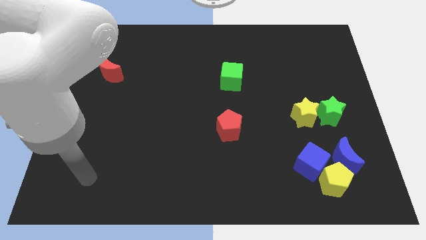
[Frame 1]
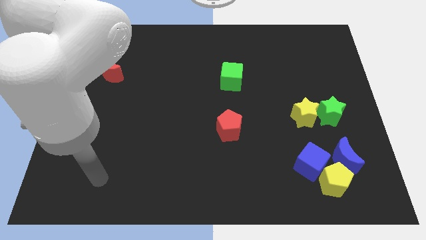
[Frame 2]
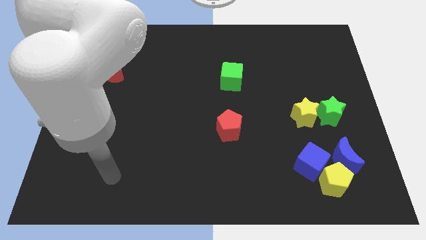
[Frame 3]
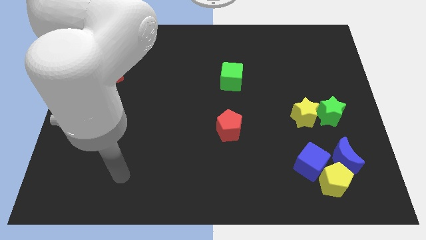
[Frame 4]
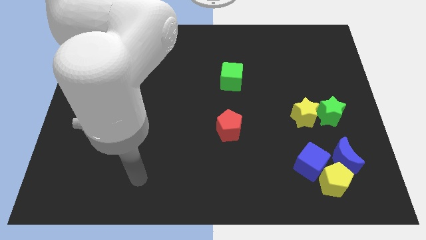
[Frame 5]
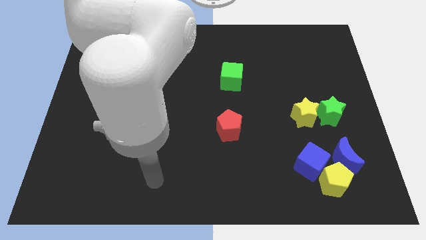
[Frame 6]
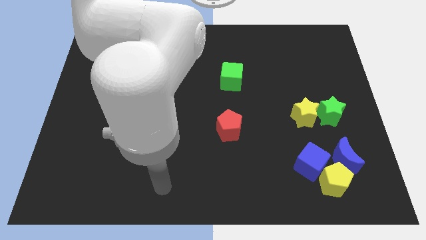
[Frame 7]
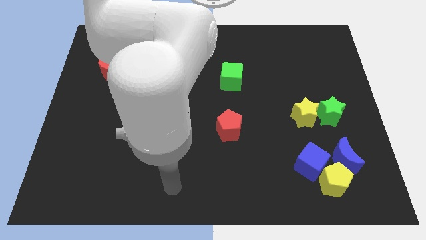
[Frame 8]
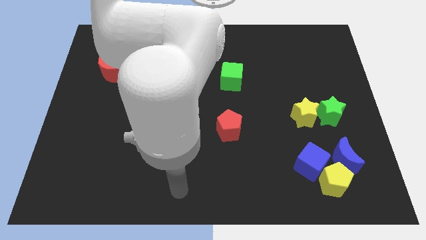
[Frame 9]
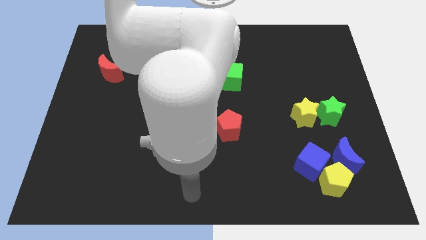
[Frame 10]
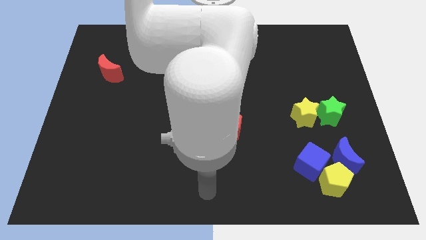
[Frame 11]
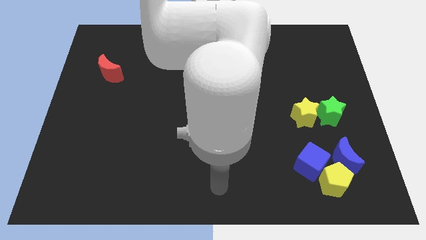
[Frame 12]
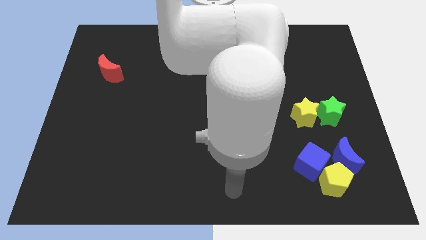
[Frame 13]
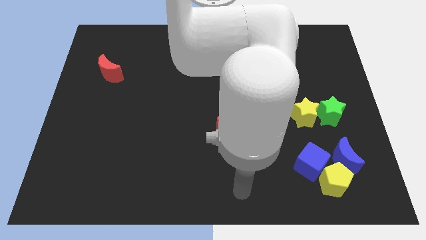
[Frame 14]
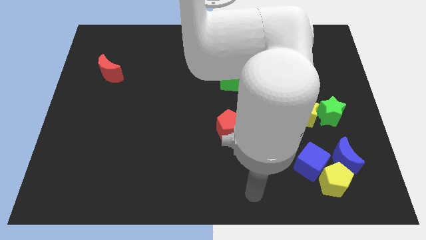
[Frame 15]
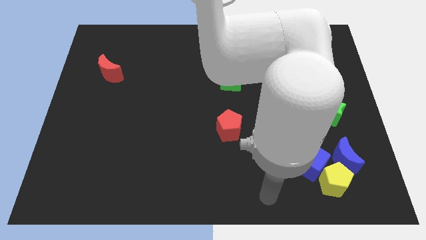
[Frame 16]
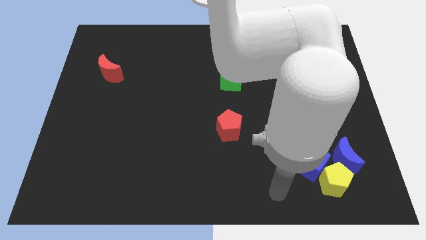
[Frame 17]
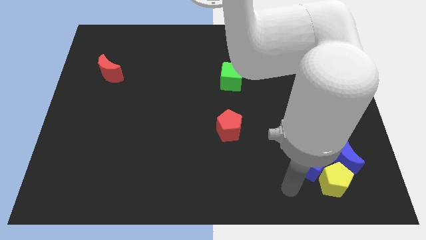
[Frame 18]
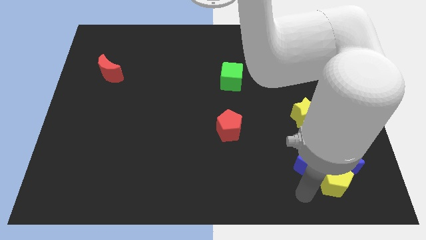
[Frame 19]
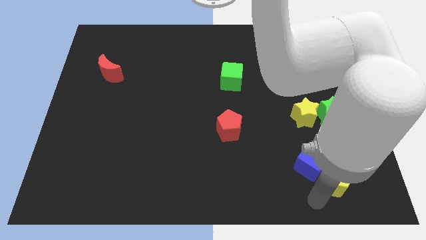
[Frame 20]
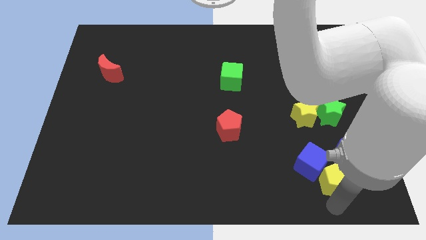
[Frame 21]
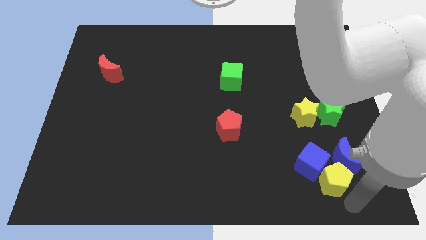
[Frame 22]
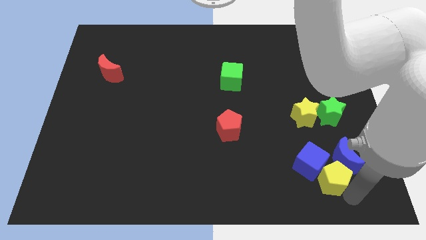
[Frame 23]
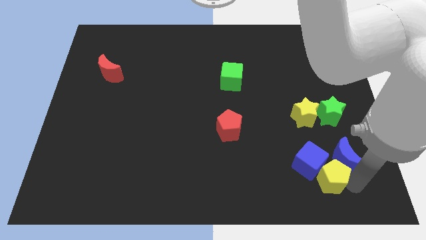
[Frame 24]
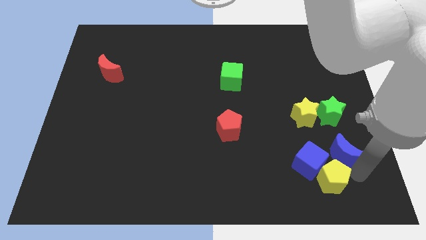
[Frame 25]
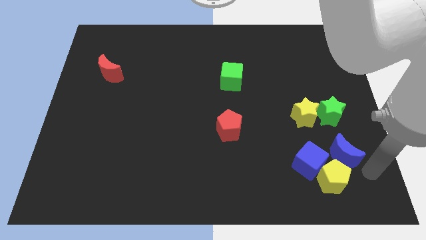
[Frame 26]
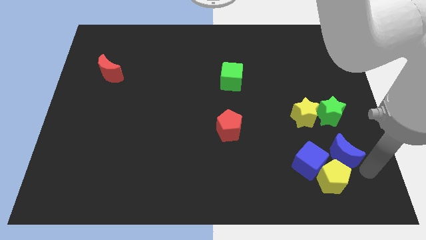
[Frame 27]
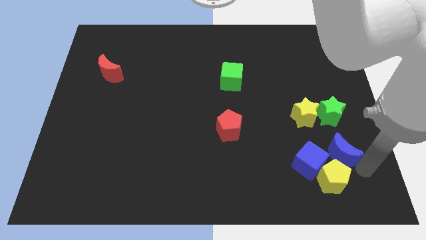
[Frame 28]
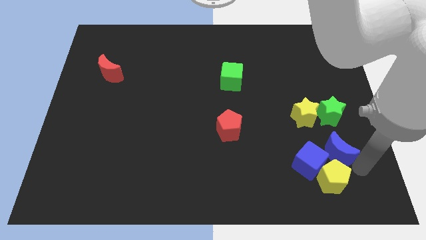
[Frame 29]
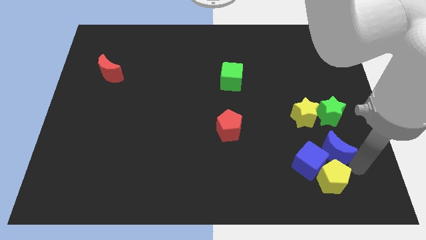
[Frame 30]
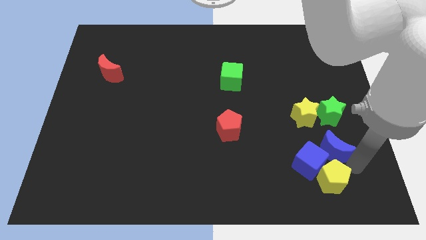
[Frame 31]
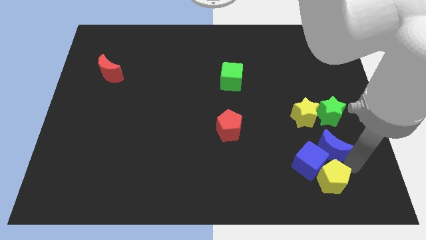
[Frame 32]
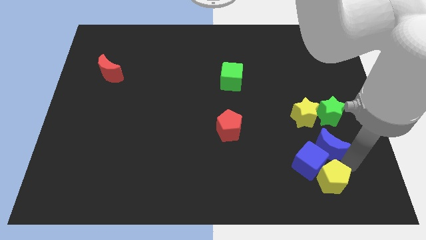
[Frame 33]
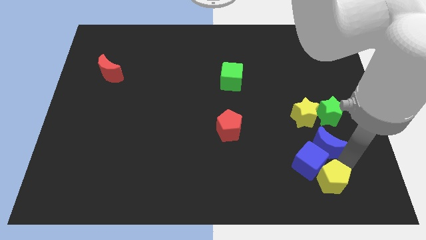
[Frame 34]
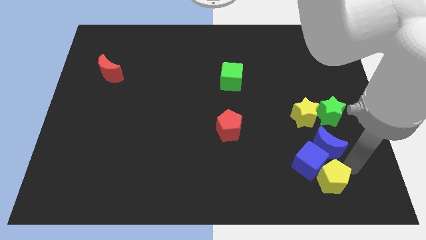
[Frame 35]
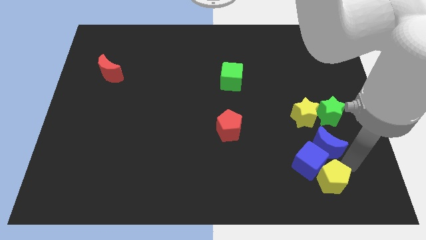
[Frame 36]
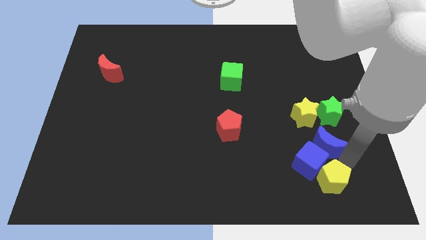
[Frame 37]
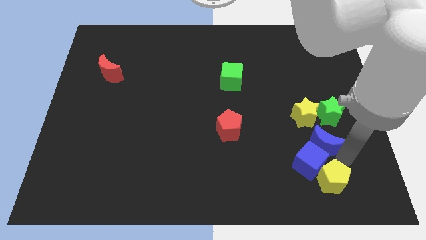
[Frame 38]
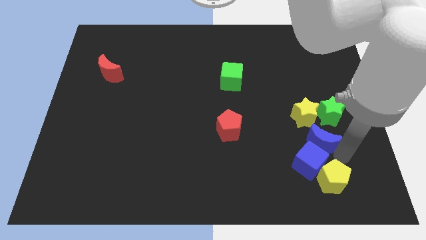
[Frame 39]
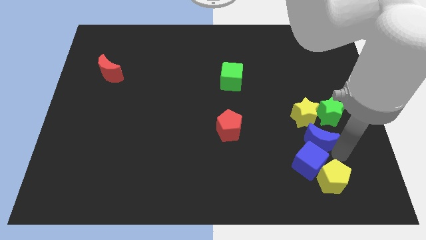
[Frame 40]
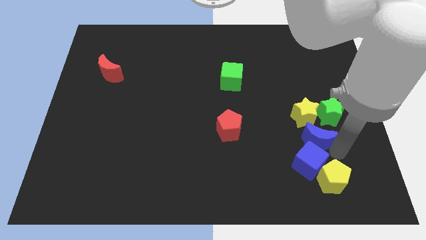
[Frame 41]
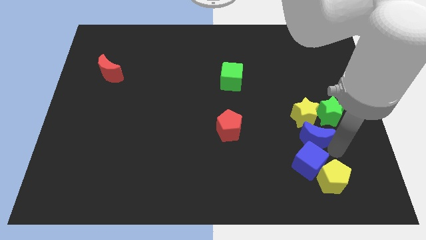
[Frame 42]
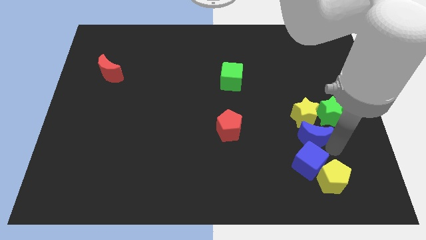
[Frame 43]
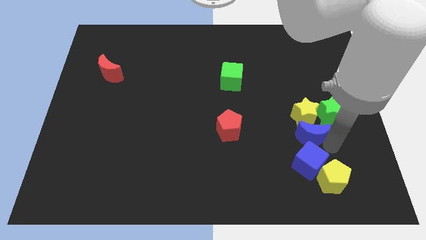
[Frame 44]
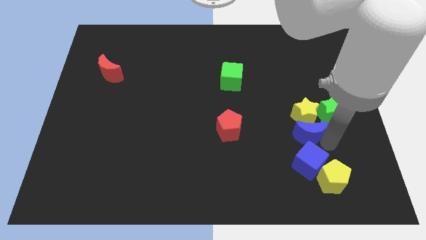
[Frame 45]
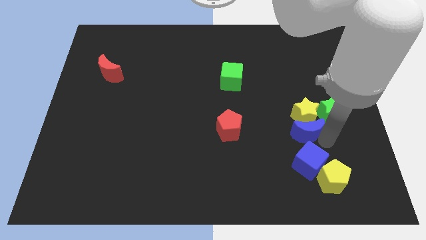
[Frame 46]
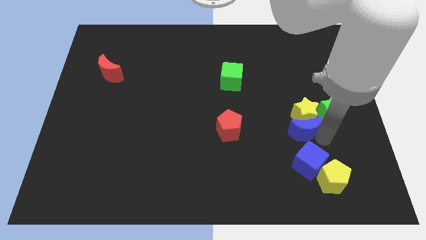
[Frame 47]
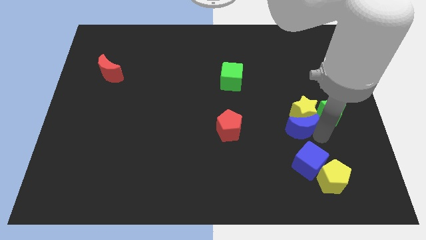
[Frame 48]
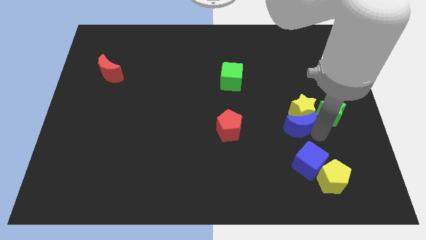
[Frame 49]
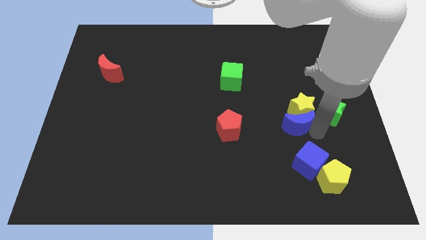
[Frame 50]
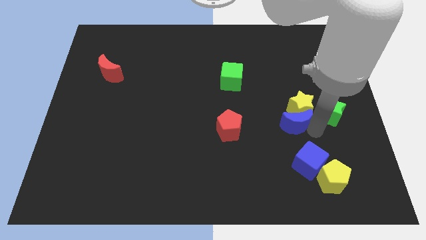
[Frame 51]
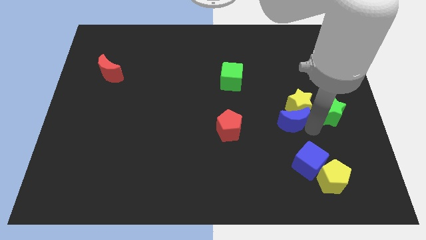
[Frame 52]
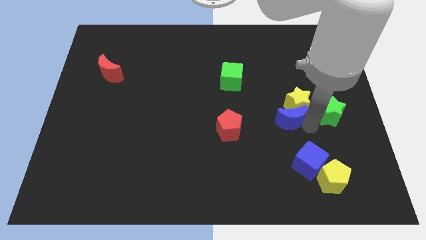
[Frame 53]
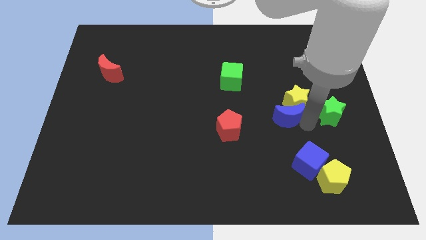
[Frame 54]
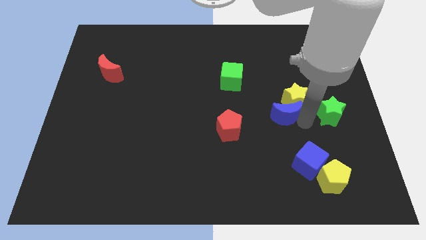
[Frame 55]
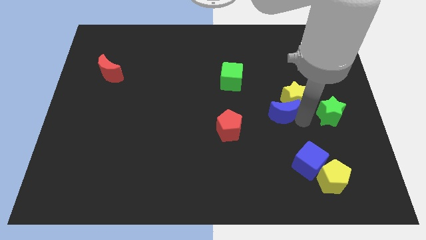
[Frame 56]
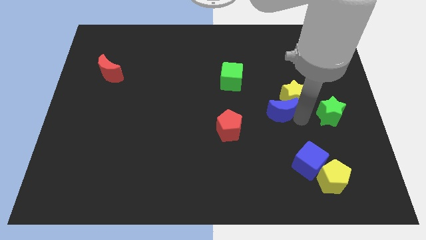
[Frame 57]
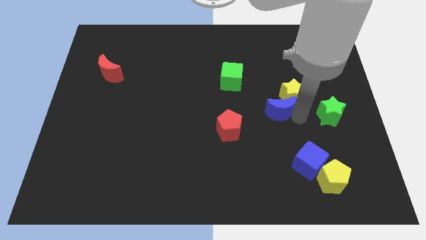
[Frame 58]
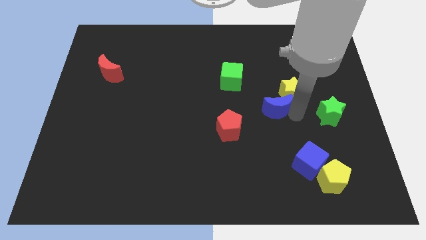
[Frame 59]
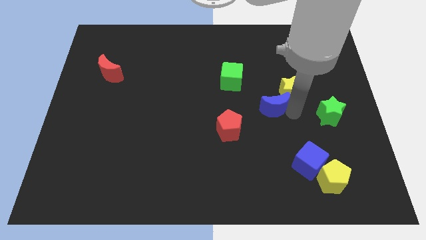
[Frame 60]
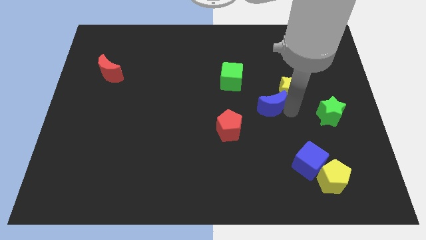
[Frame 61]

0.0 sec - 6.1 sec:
put the blue moon diagonally down and to the right of the green cube

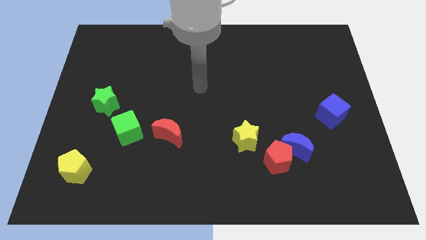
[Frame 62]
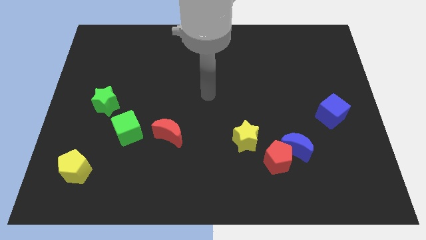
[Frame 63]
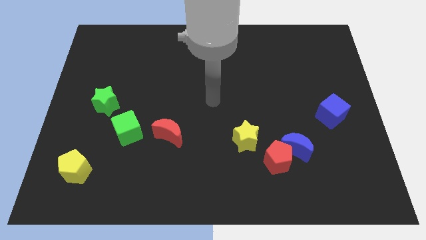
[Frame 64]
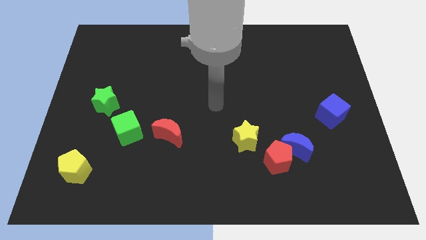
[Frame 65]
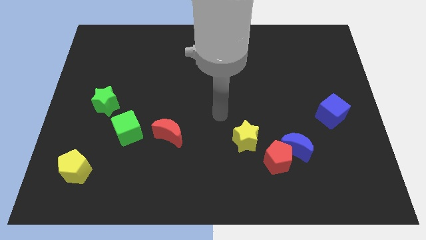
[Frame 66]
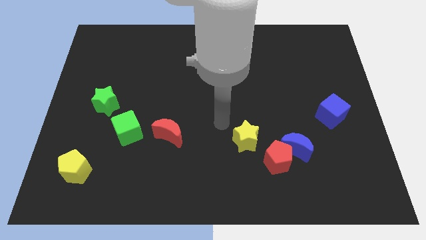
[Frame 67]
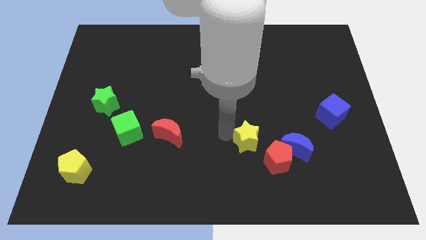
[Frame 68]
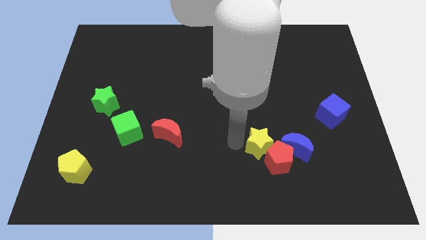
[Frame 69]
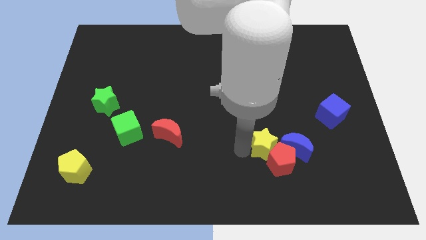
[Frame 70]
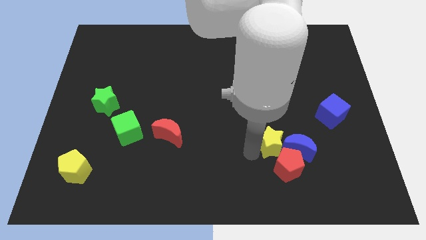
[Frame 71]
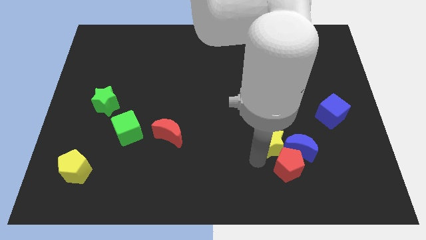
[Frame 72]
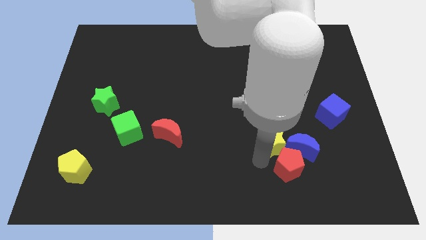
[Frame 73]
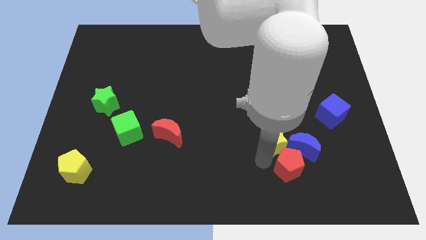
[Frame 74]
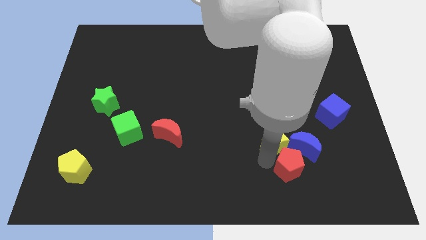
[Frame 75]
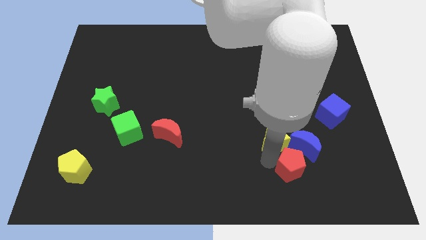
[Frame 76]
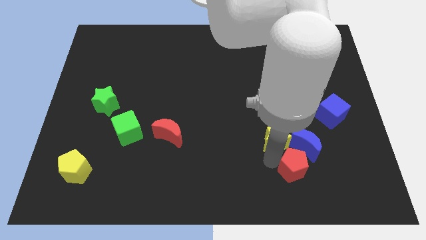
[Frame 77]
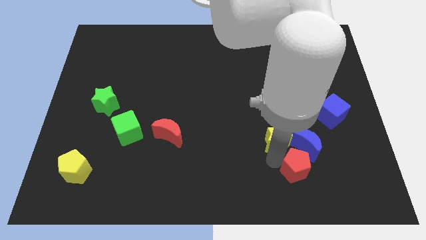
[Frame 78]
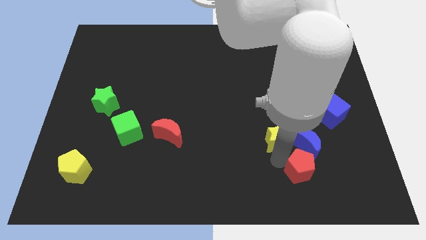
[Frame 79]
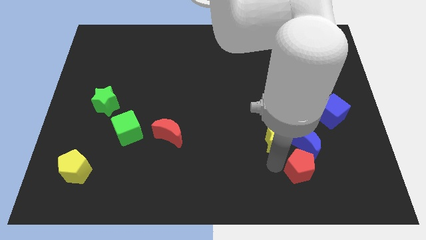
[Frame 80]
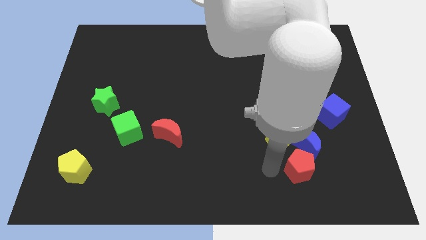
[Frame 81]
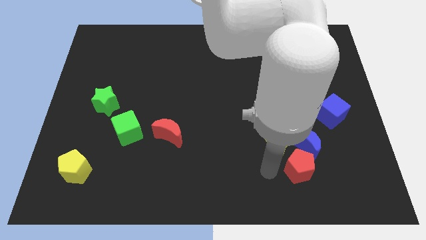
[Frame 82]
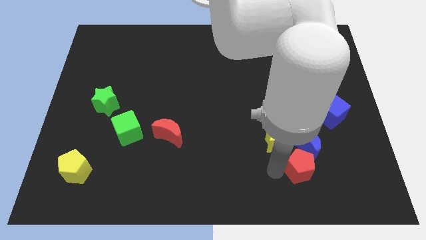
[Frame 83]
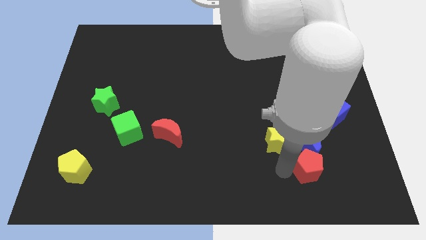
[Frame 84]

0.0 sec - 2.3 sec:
slide the red pentagon to the bottom right of the blue moon
